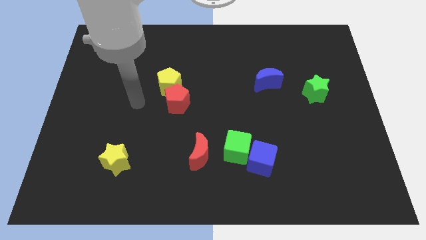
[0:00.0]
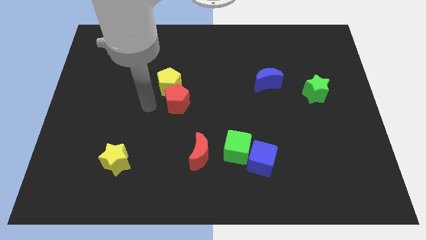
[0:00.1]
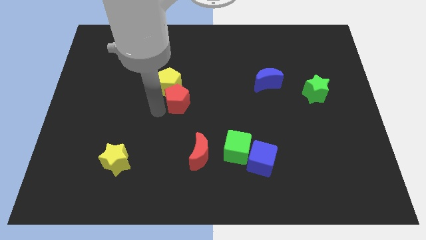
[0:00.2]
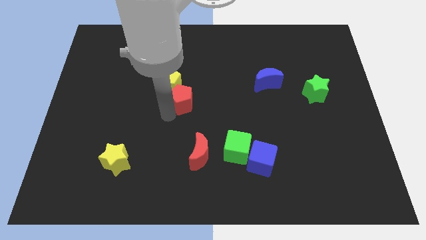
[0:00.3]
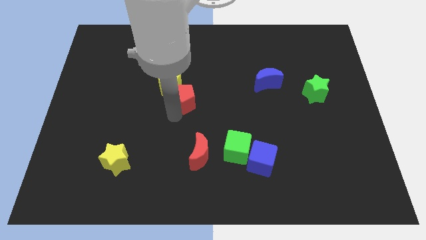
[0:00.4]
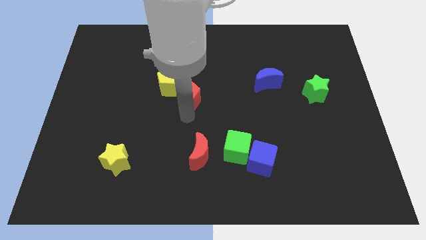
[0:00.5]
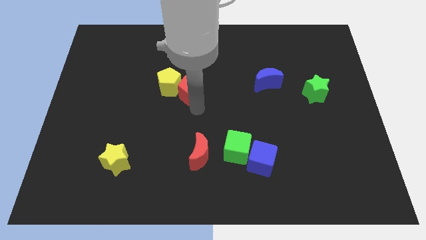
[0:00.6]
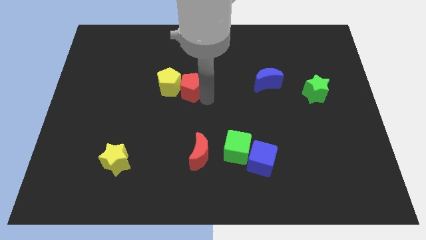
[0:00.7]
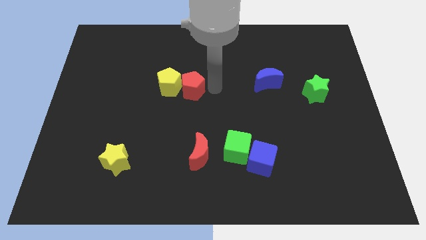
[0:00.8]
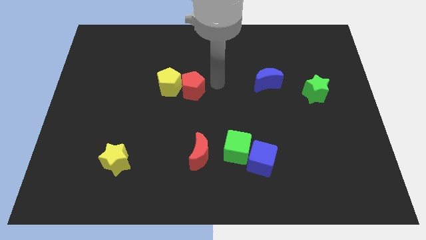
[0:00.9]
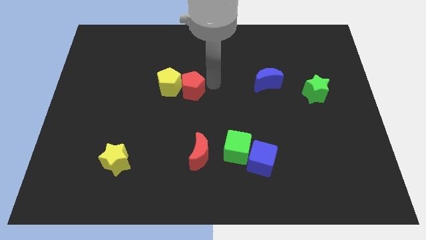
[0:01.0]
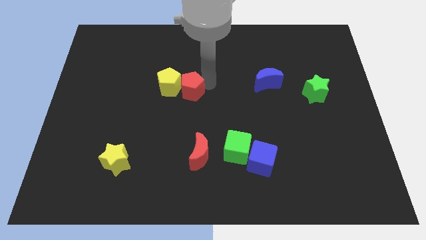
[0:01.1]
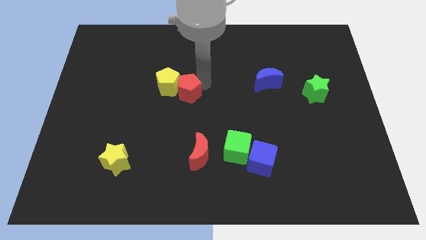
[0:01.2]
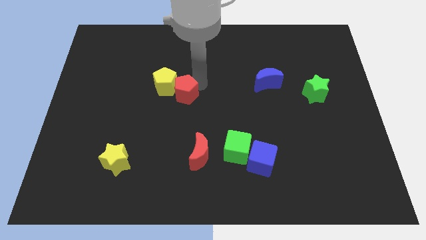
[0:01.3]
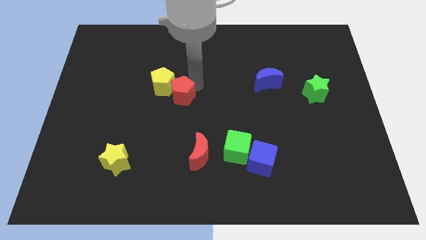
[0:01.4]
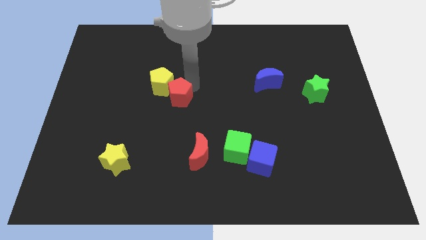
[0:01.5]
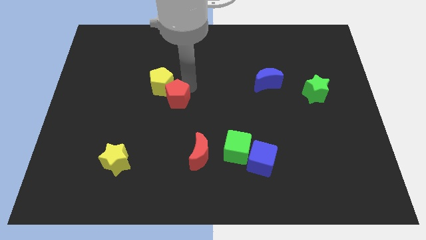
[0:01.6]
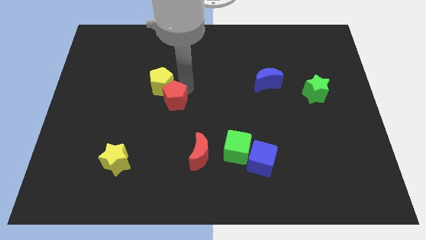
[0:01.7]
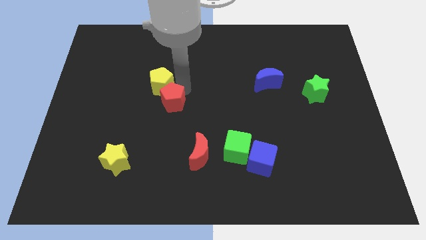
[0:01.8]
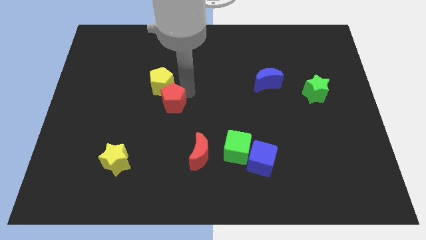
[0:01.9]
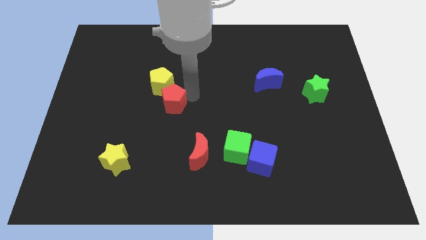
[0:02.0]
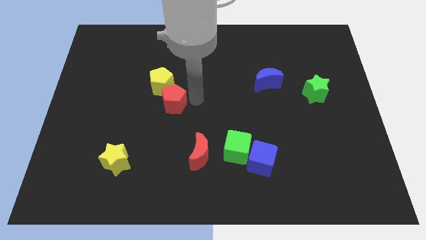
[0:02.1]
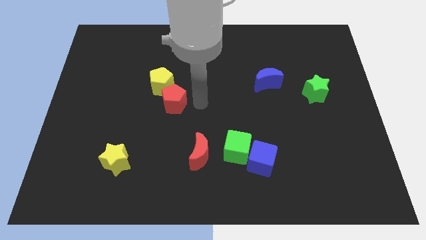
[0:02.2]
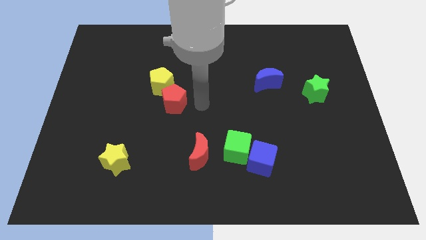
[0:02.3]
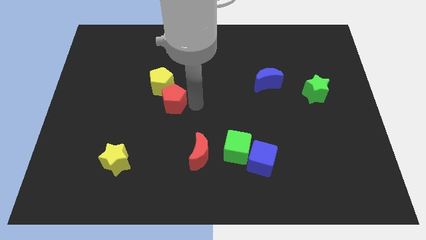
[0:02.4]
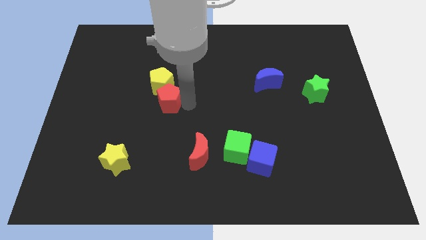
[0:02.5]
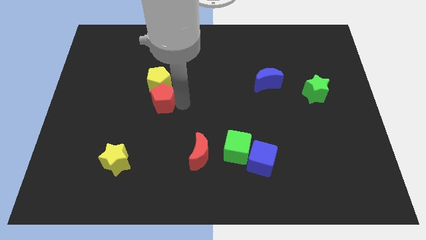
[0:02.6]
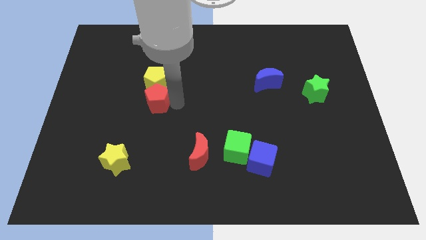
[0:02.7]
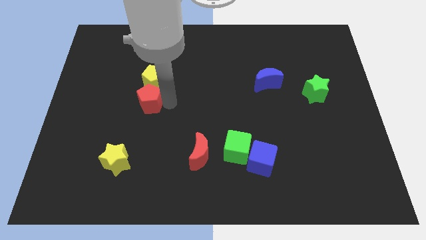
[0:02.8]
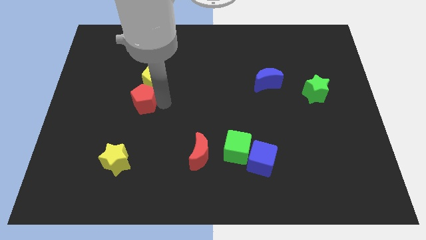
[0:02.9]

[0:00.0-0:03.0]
push the red pentagon left a little bit

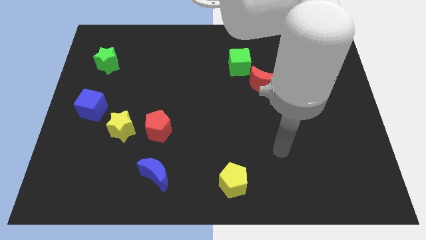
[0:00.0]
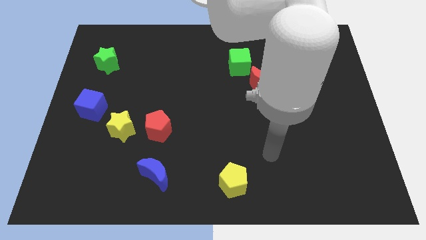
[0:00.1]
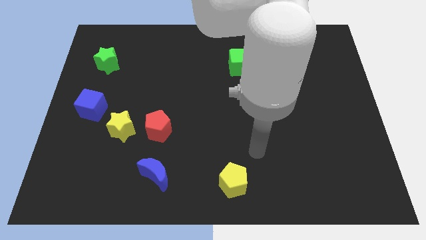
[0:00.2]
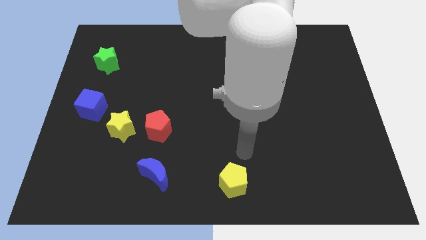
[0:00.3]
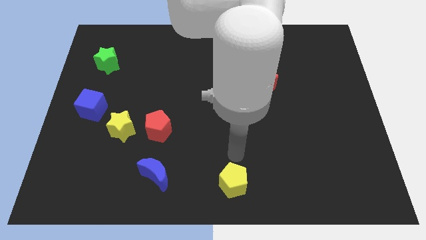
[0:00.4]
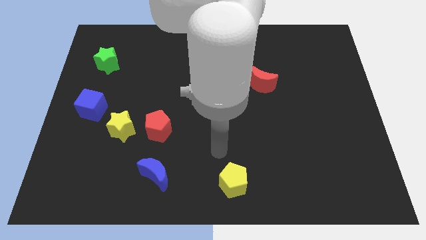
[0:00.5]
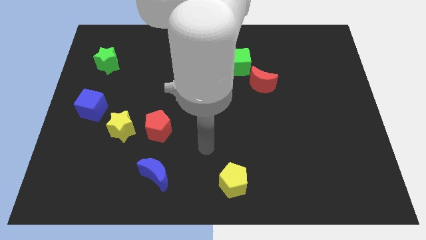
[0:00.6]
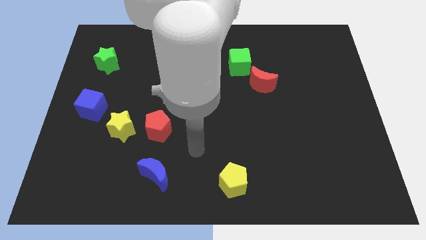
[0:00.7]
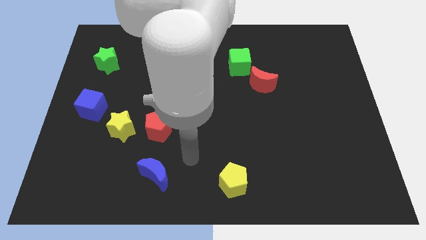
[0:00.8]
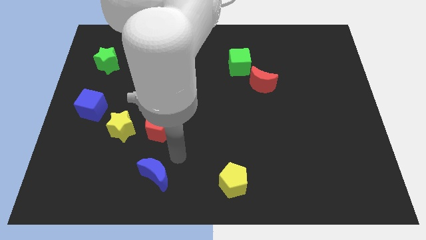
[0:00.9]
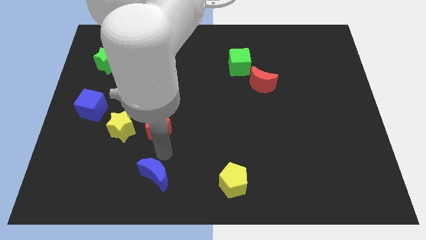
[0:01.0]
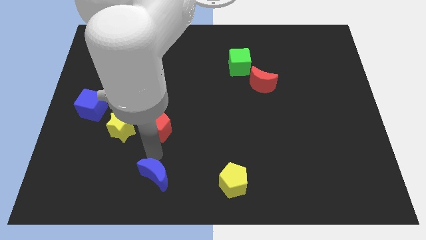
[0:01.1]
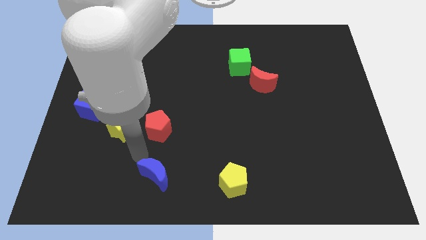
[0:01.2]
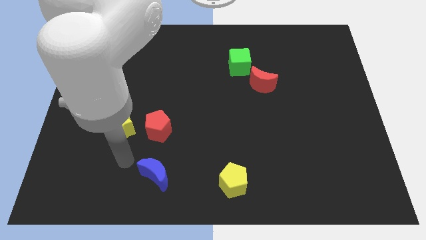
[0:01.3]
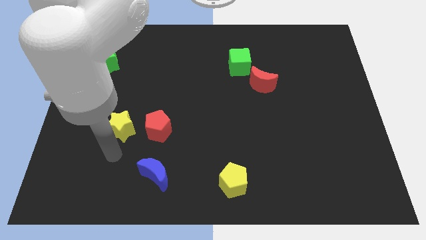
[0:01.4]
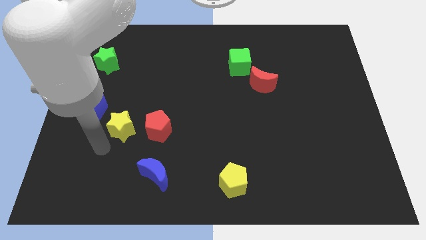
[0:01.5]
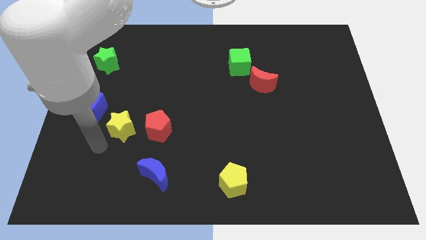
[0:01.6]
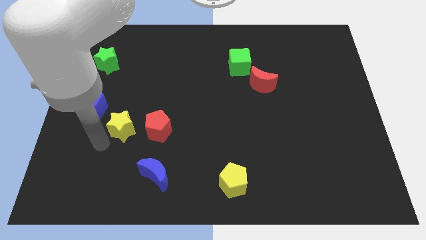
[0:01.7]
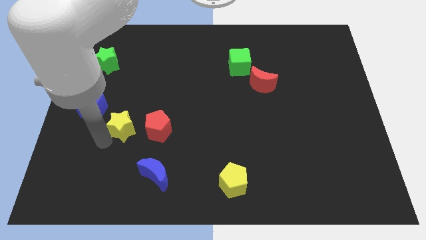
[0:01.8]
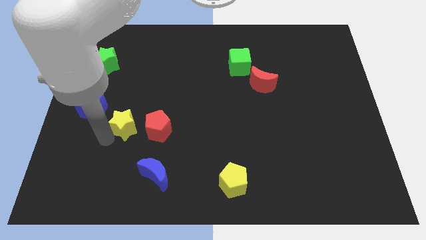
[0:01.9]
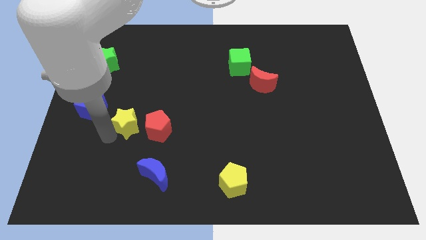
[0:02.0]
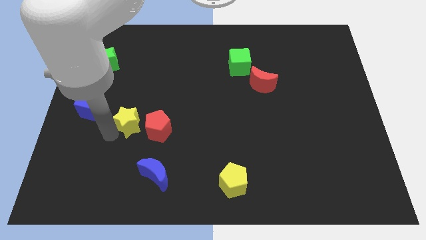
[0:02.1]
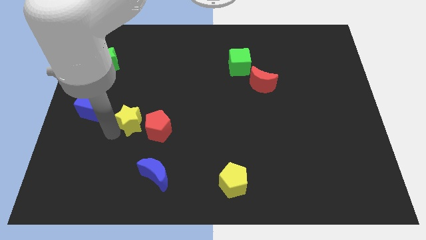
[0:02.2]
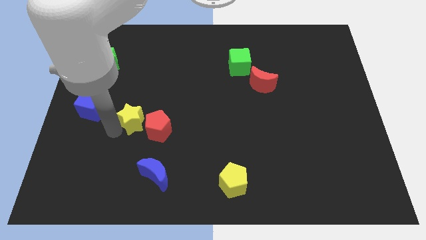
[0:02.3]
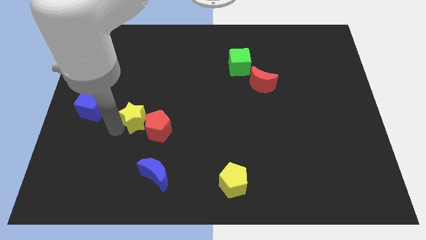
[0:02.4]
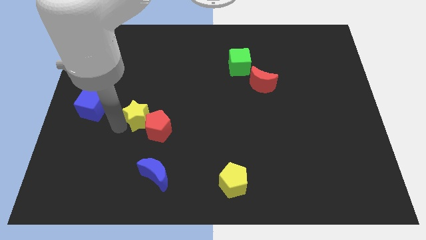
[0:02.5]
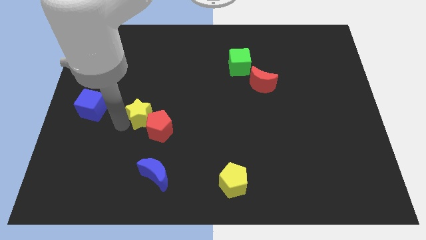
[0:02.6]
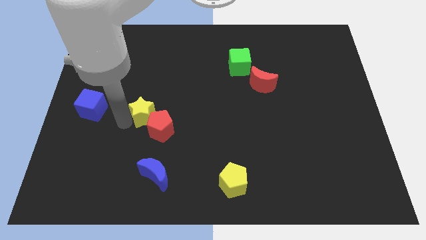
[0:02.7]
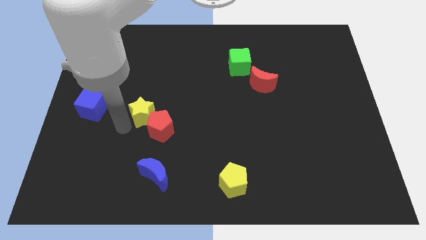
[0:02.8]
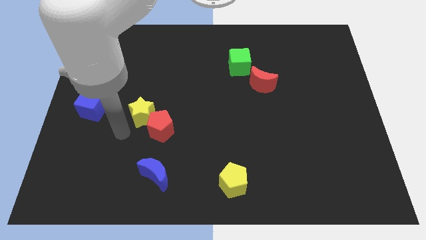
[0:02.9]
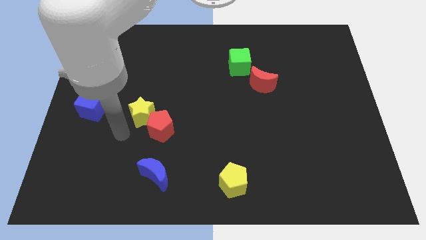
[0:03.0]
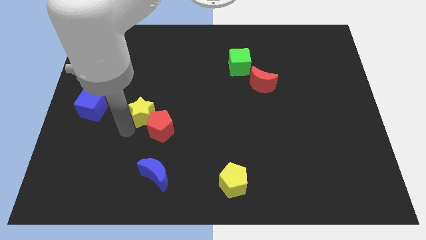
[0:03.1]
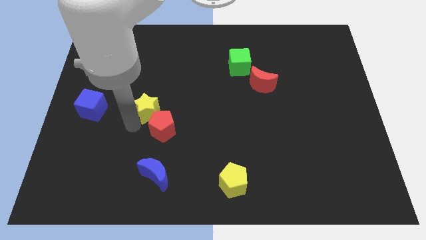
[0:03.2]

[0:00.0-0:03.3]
push the yellow star a bit upwards and right diagonally

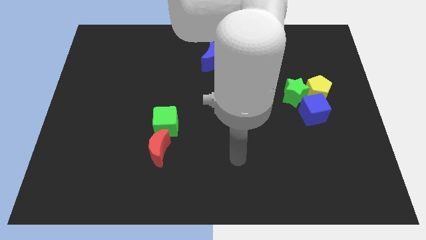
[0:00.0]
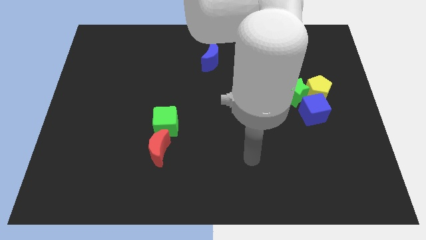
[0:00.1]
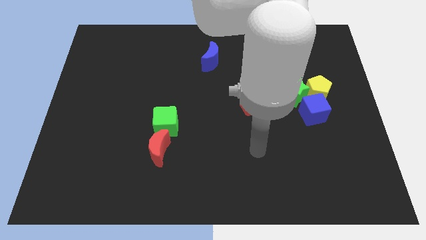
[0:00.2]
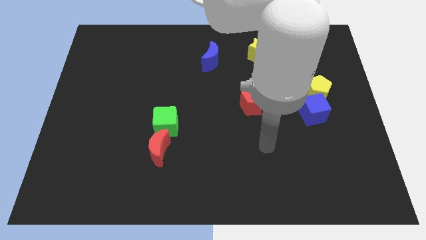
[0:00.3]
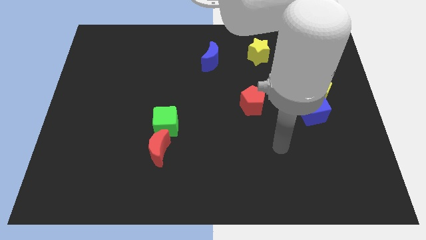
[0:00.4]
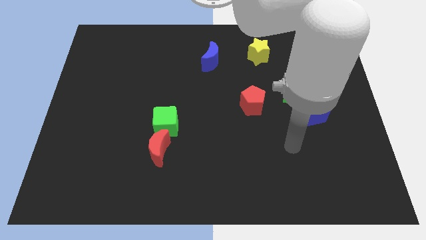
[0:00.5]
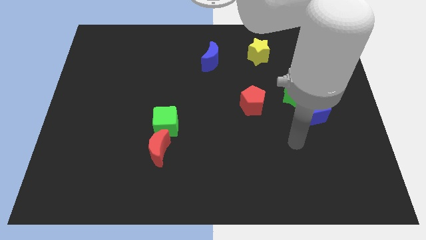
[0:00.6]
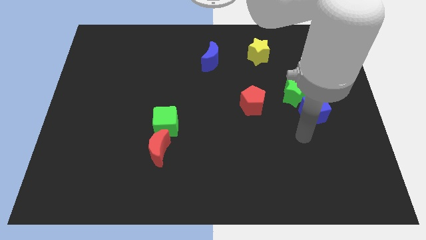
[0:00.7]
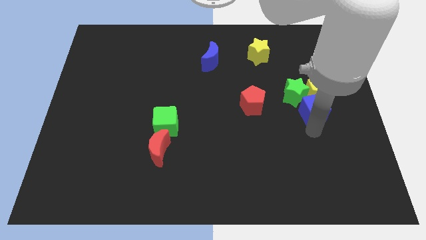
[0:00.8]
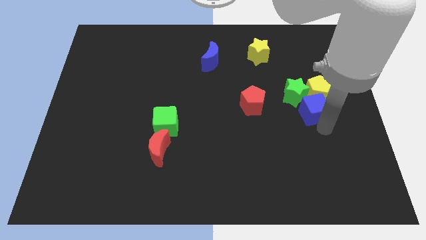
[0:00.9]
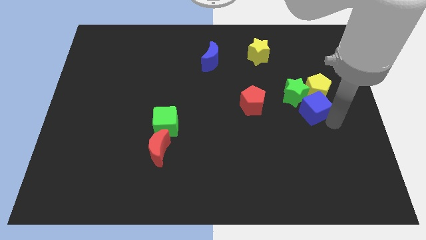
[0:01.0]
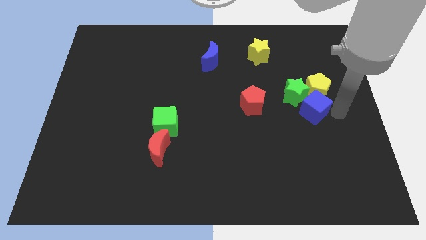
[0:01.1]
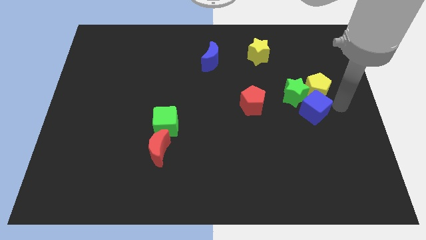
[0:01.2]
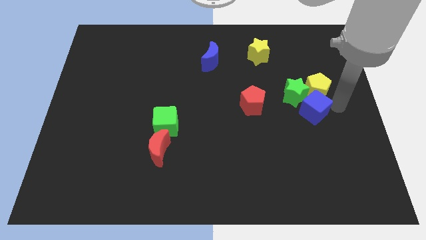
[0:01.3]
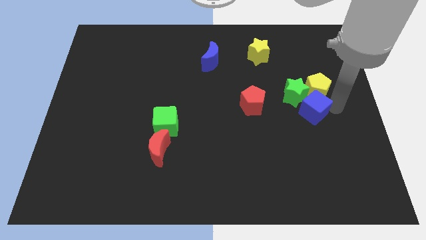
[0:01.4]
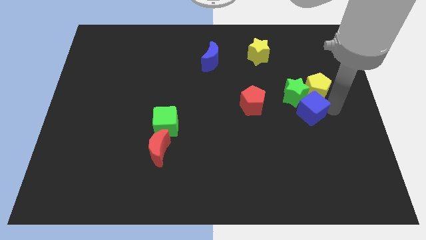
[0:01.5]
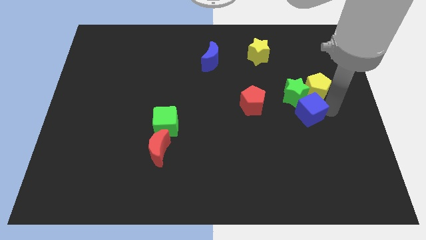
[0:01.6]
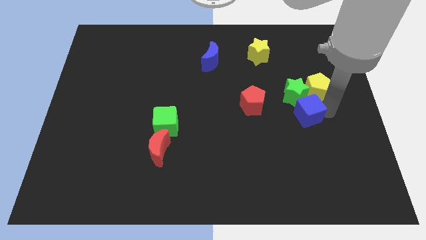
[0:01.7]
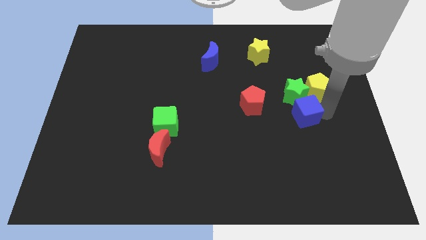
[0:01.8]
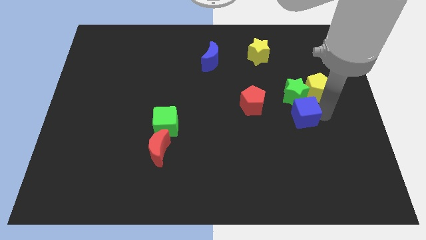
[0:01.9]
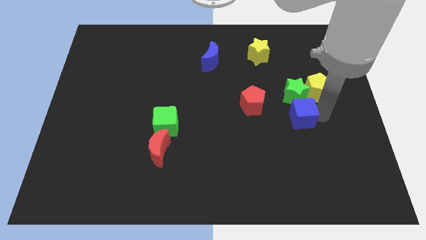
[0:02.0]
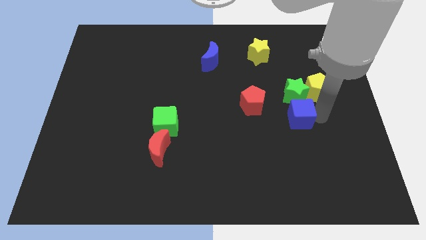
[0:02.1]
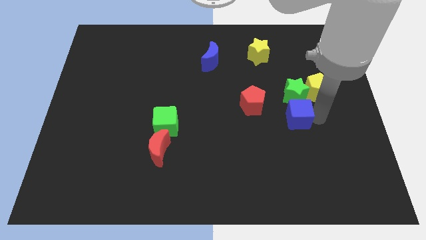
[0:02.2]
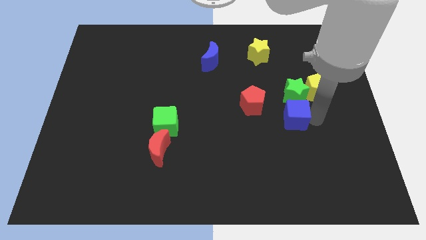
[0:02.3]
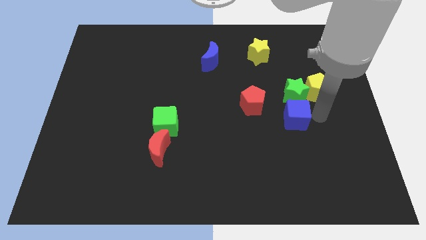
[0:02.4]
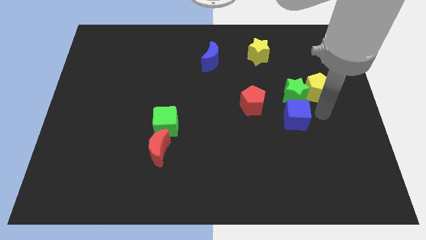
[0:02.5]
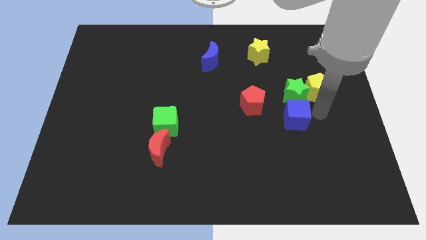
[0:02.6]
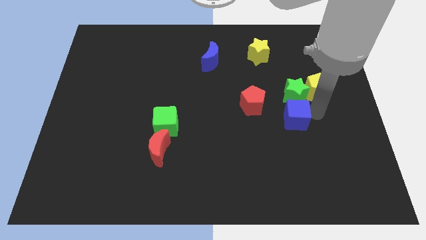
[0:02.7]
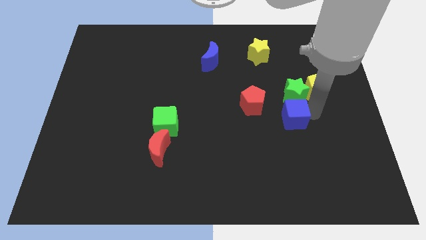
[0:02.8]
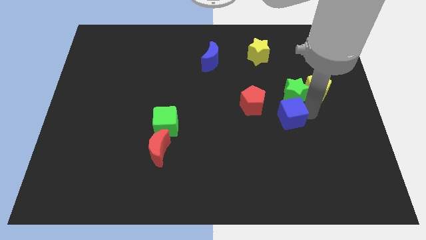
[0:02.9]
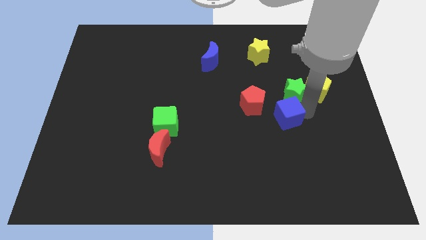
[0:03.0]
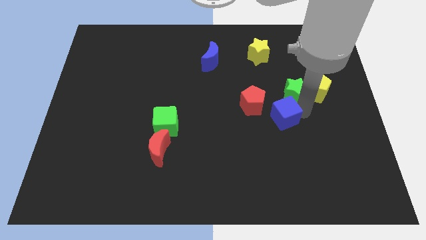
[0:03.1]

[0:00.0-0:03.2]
slightly push the blue cube left
